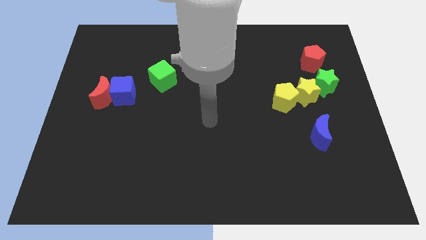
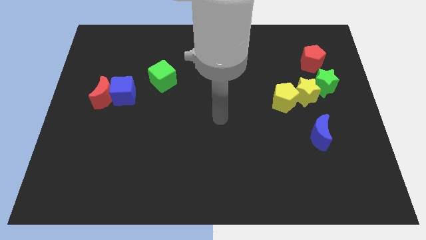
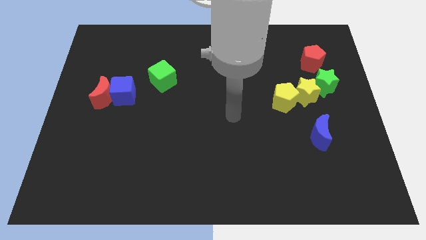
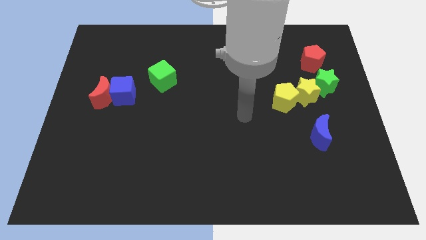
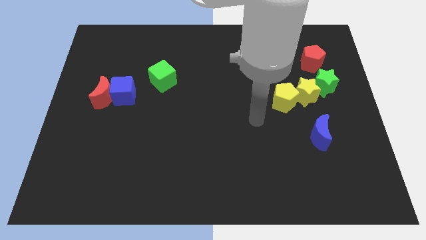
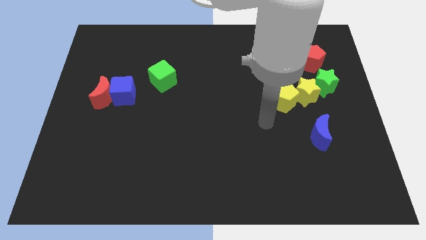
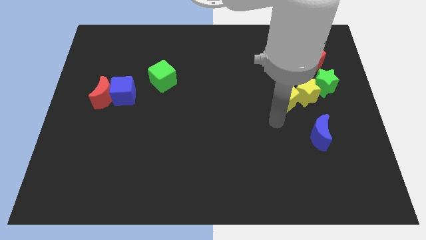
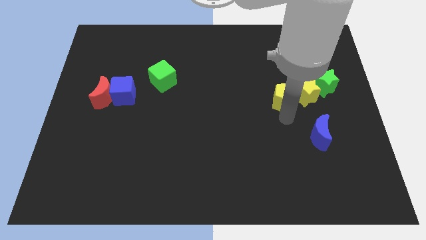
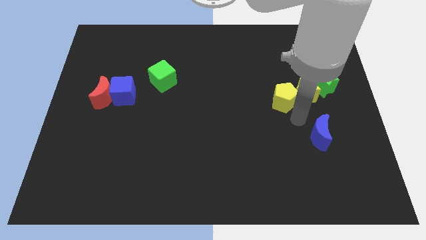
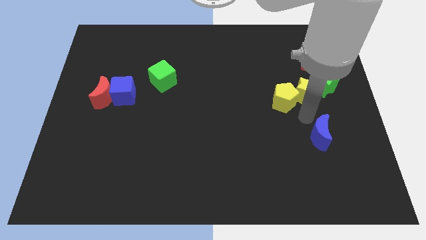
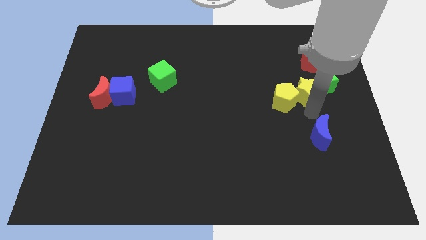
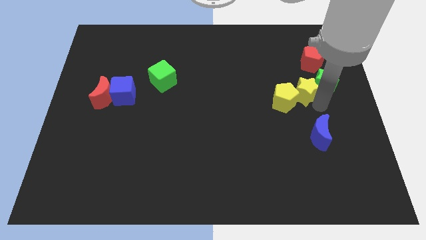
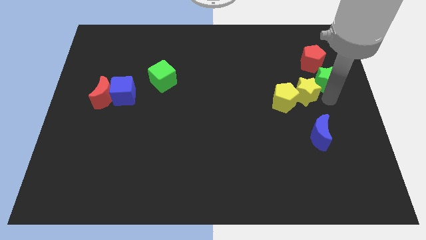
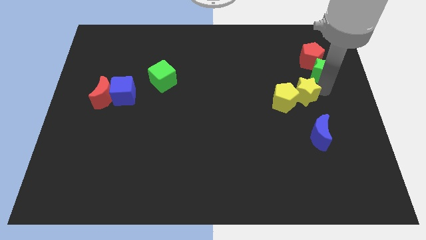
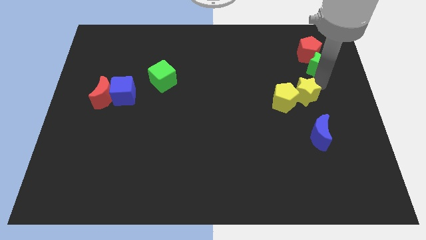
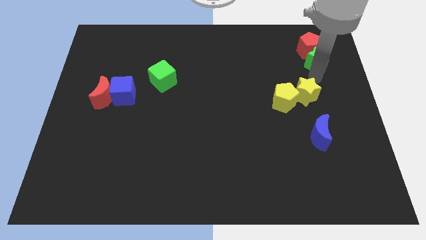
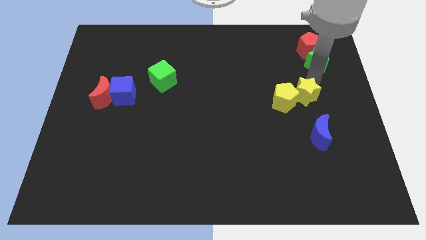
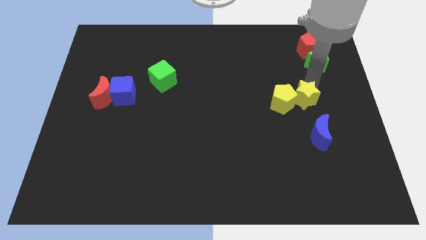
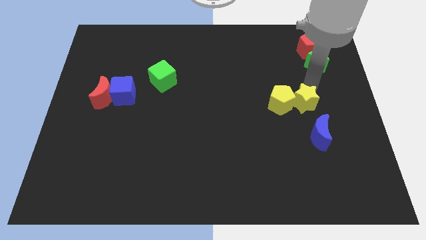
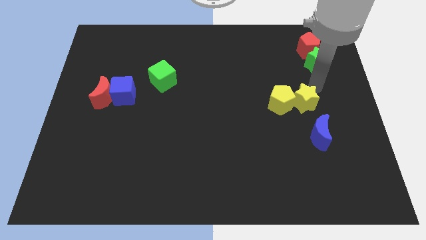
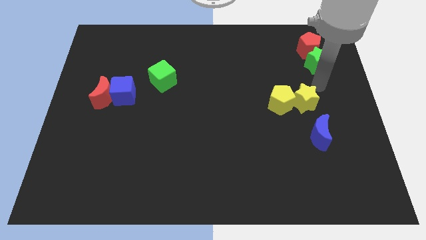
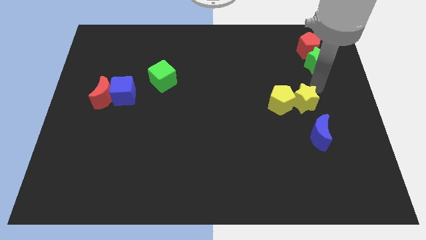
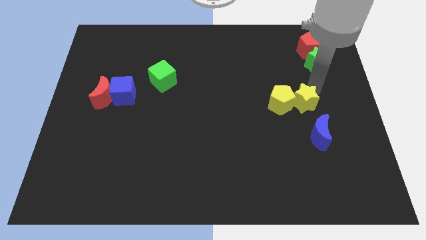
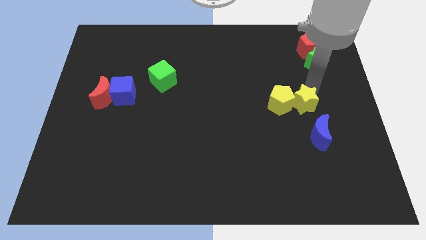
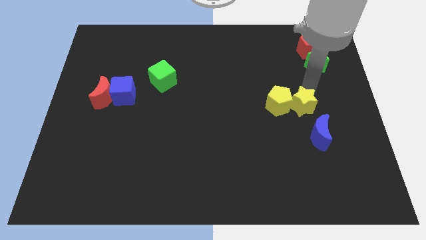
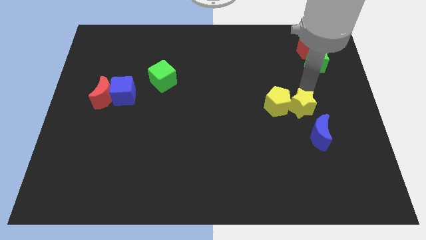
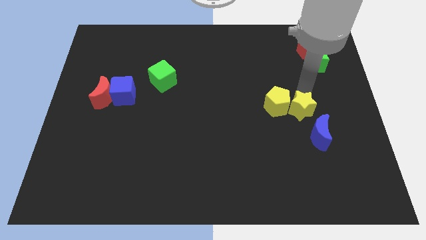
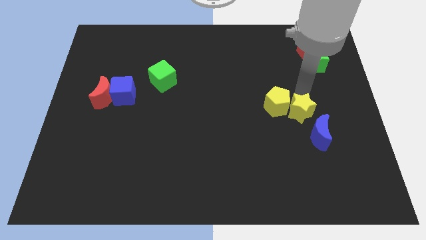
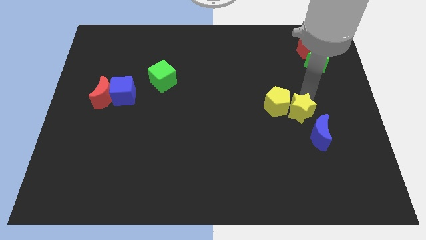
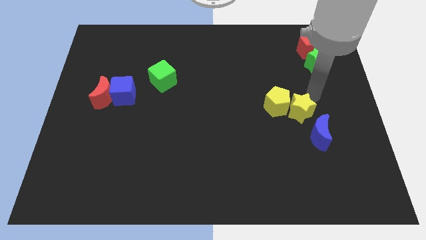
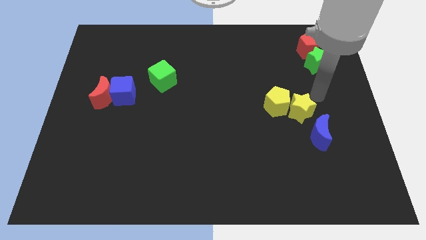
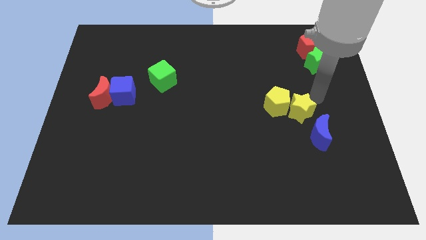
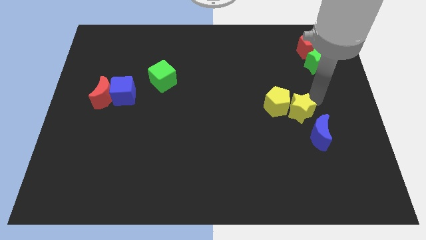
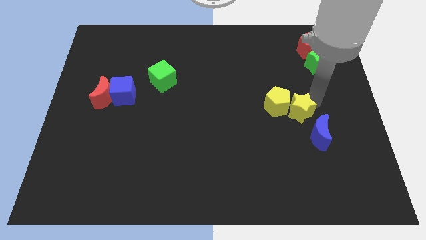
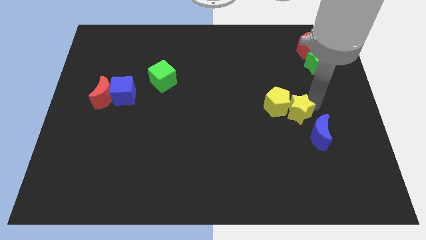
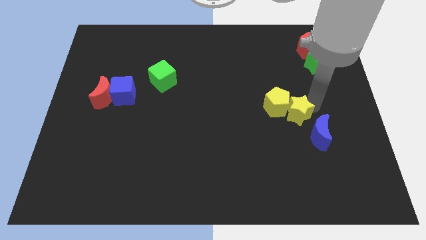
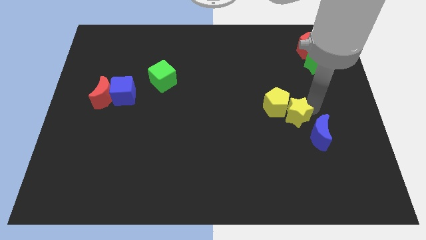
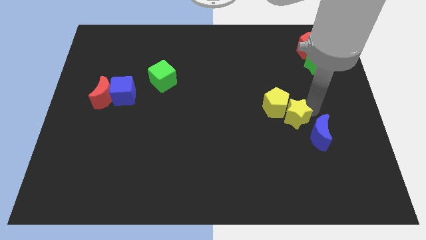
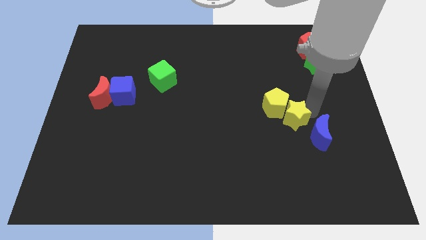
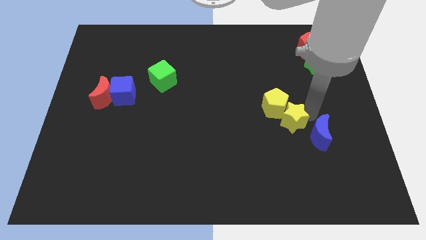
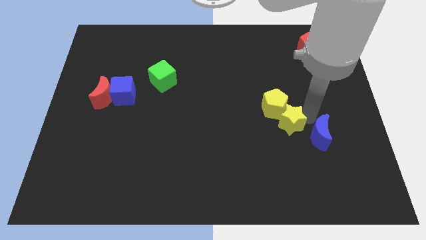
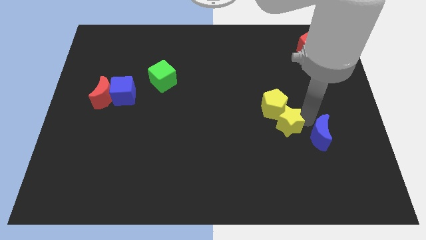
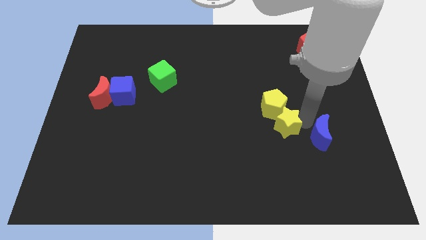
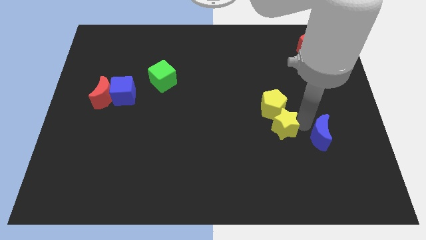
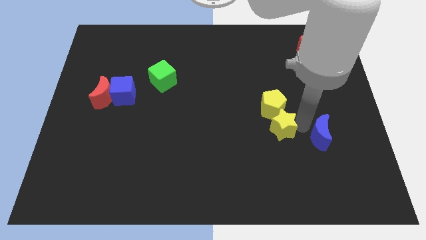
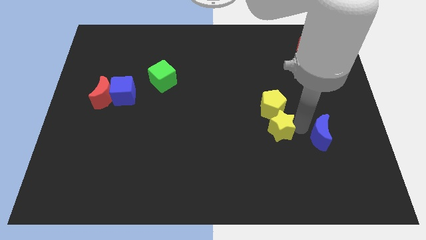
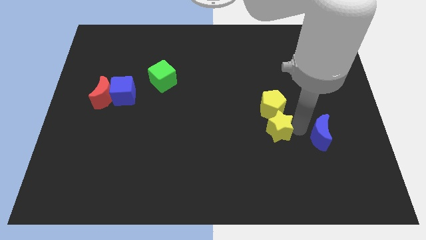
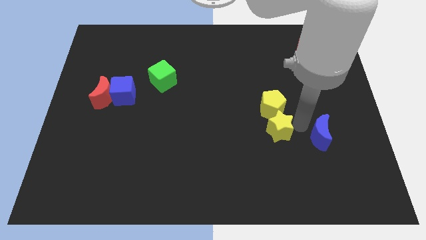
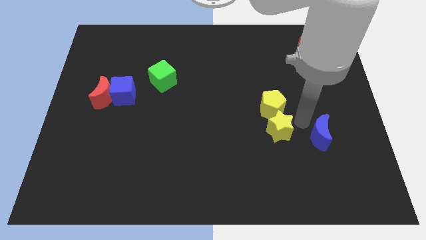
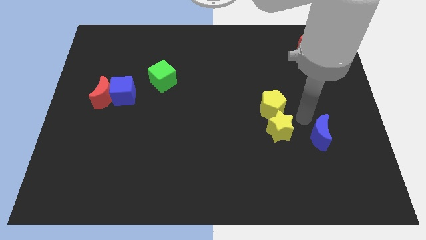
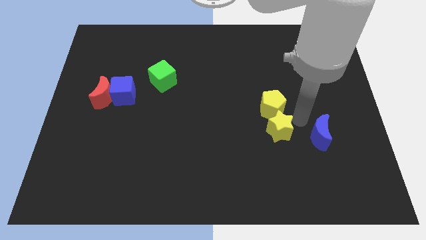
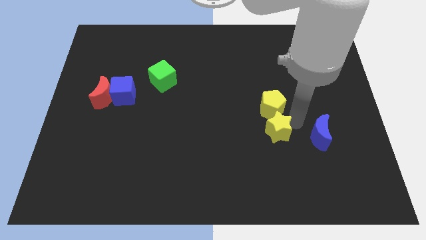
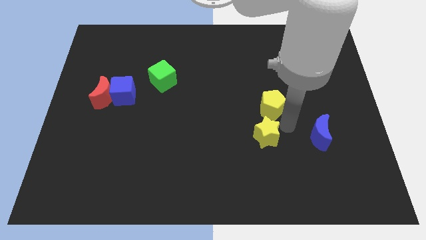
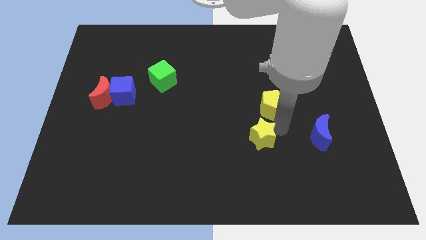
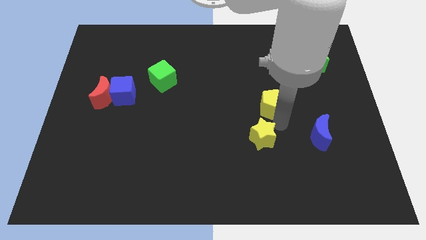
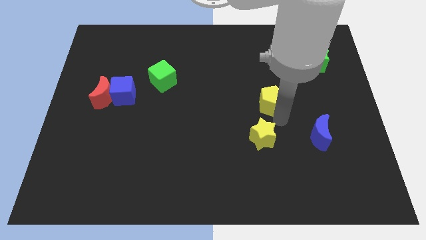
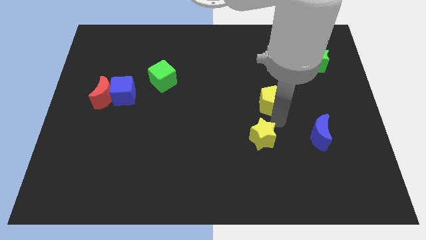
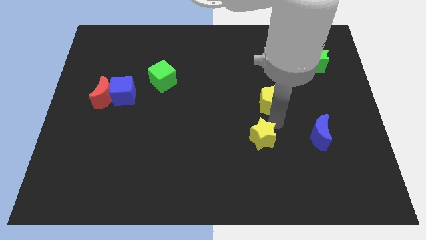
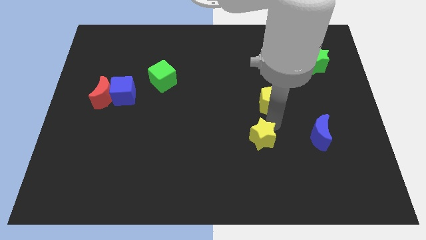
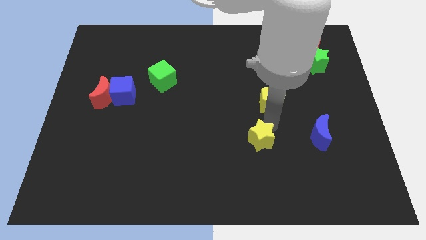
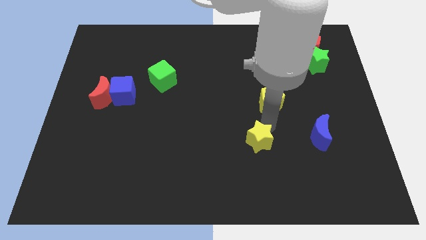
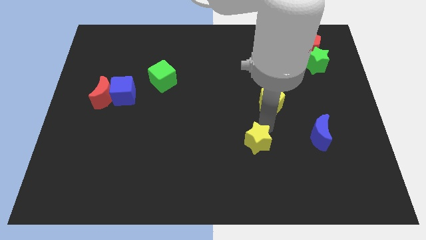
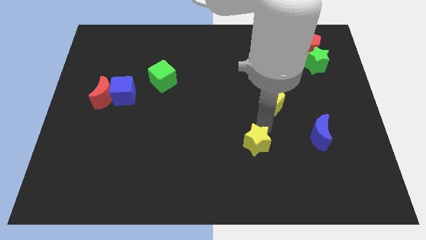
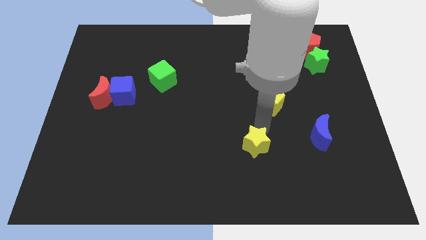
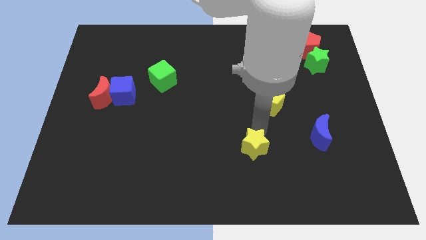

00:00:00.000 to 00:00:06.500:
slide the yellow star diagonally downwards and to the left

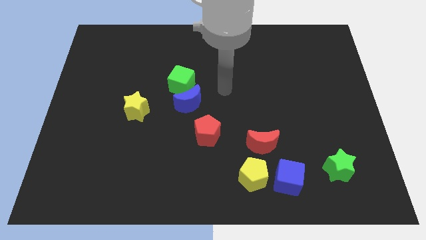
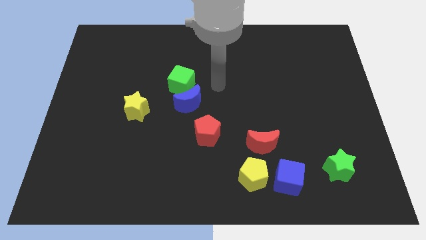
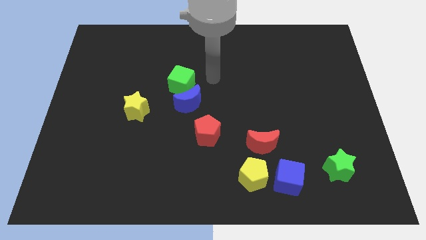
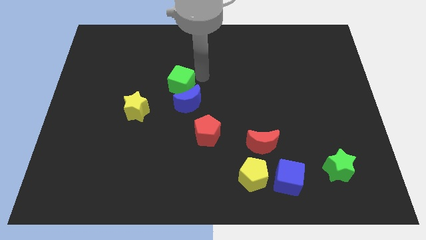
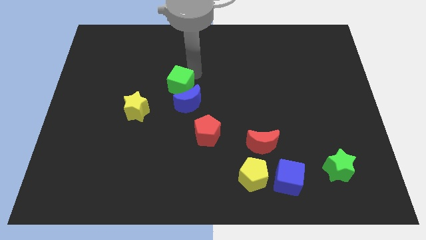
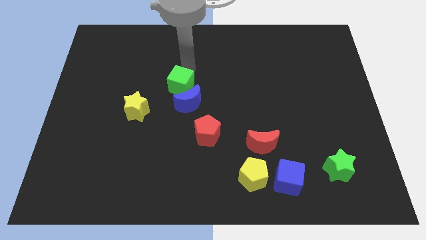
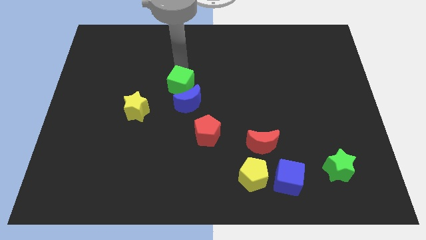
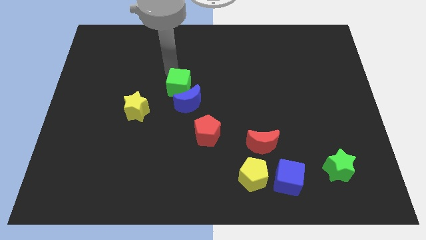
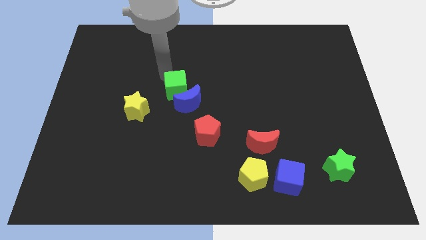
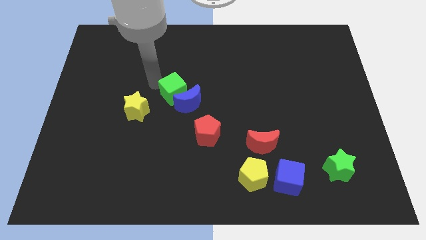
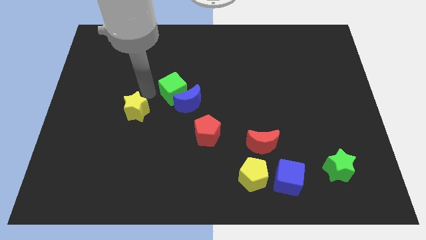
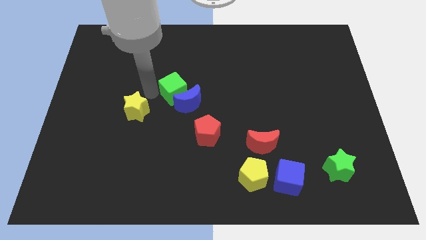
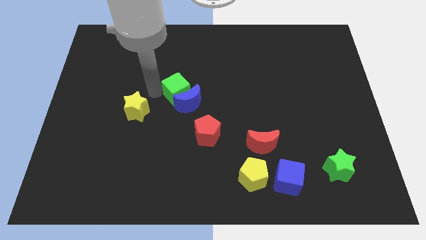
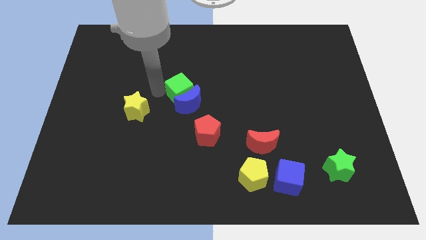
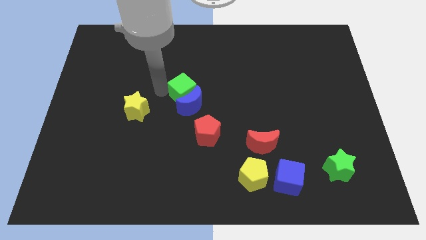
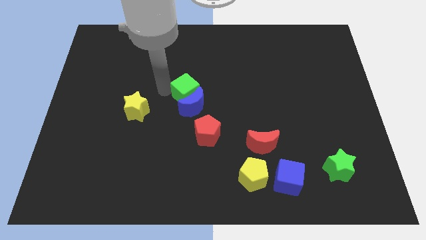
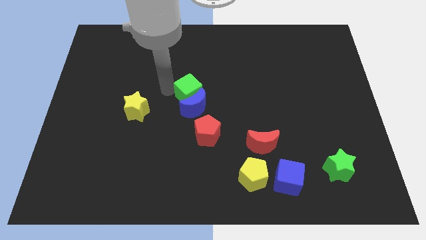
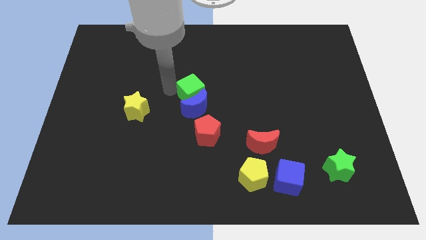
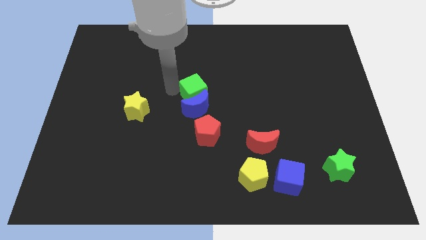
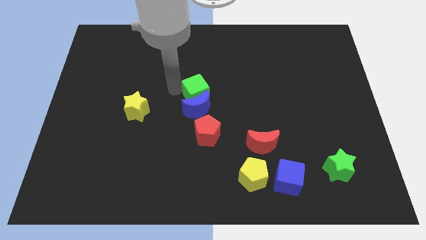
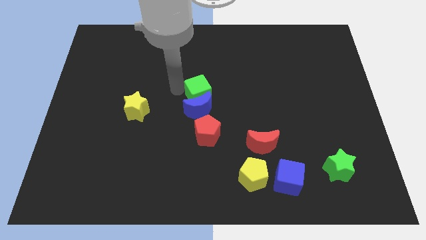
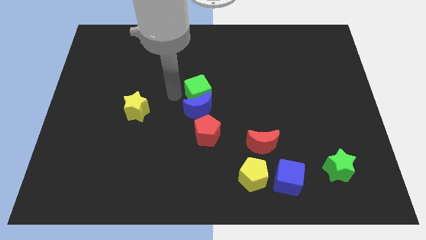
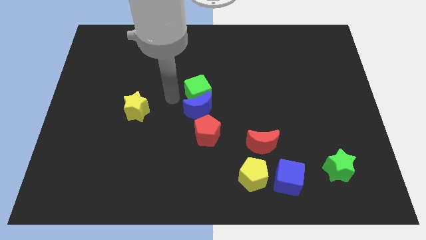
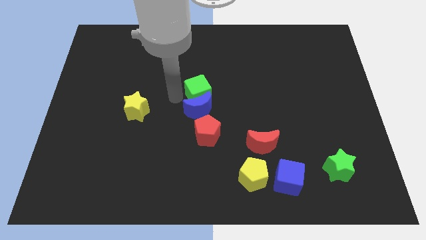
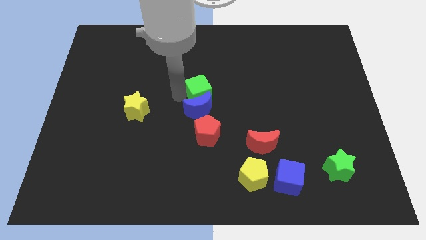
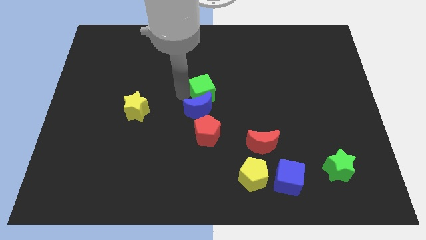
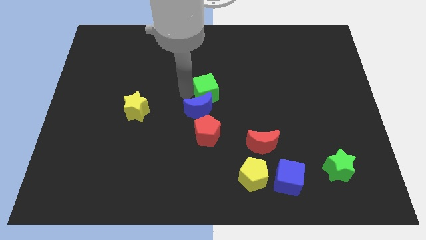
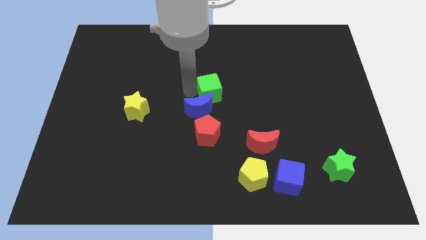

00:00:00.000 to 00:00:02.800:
slightly push the green cube right
